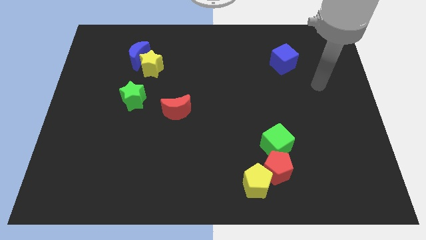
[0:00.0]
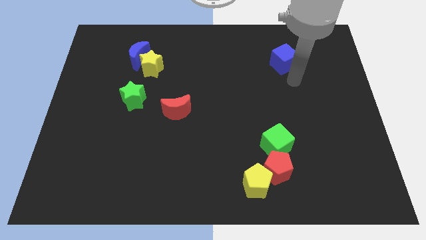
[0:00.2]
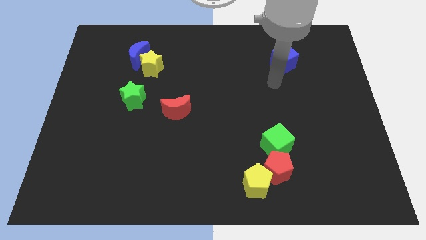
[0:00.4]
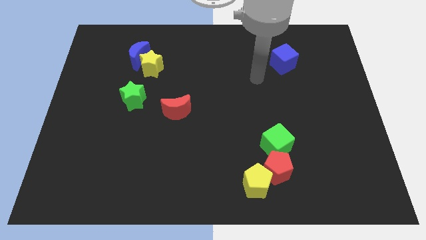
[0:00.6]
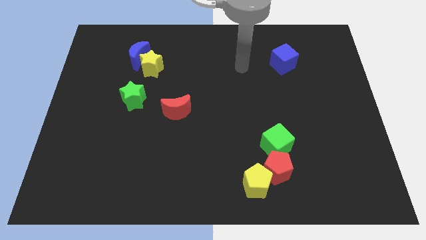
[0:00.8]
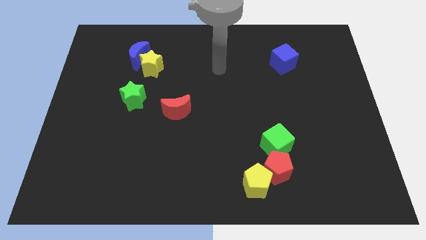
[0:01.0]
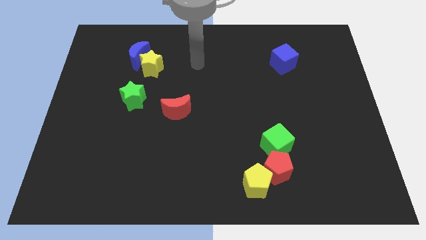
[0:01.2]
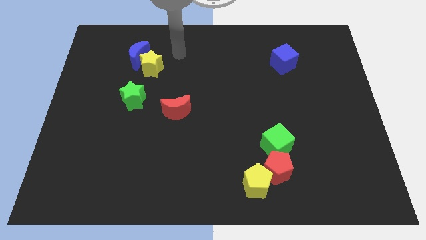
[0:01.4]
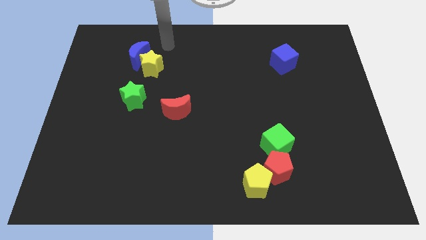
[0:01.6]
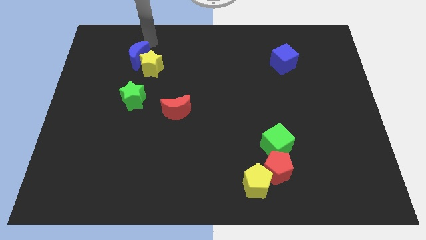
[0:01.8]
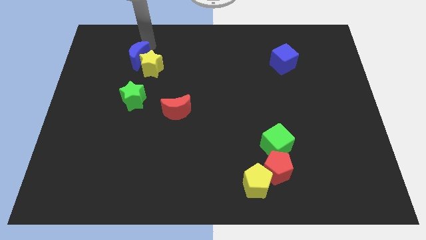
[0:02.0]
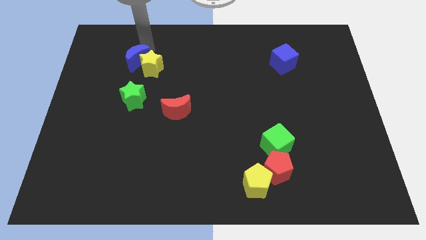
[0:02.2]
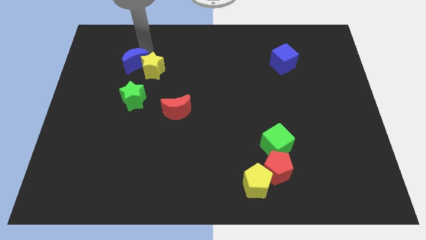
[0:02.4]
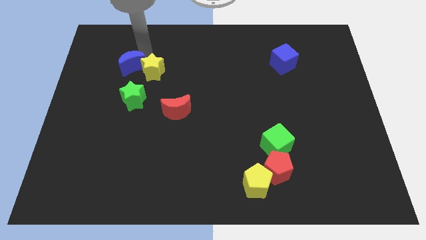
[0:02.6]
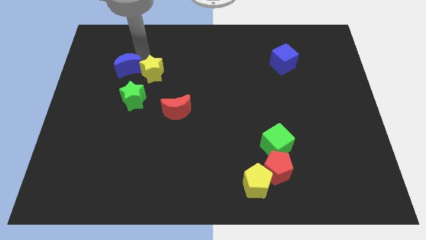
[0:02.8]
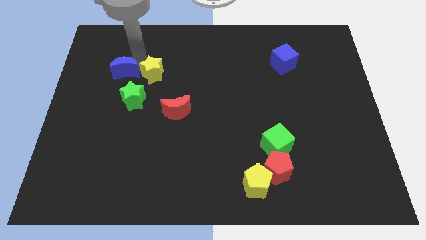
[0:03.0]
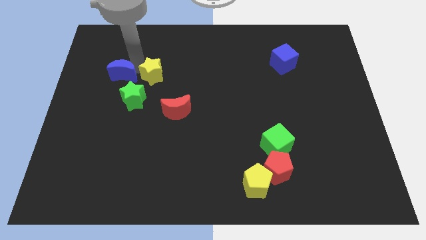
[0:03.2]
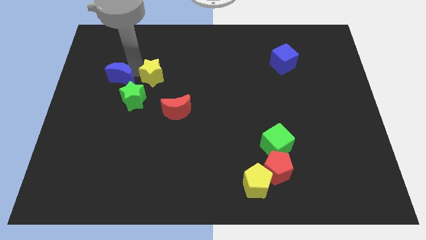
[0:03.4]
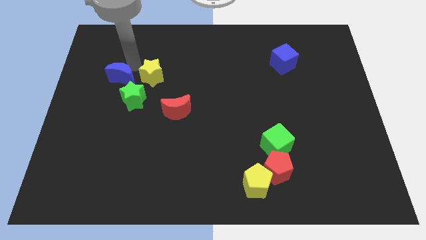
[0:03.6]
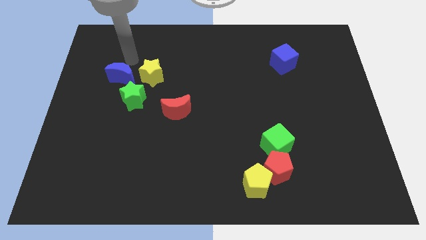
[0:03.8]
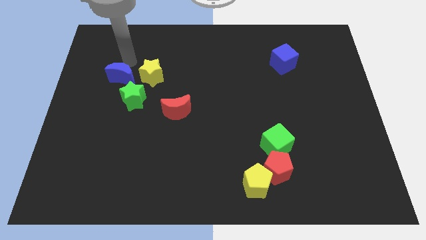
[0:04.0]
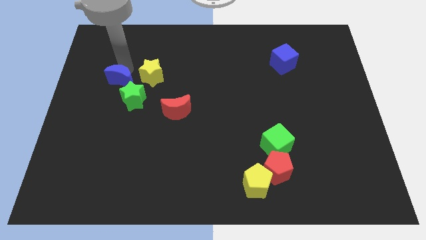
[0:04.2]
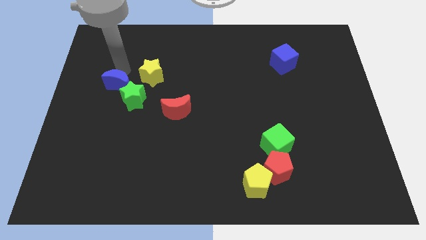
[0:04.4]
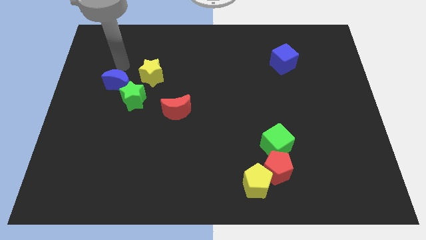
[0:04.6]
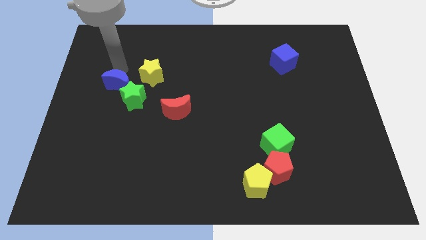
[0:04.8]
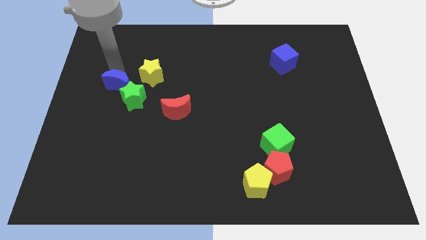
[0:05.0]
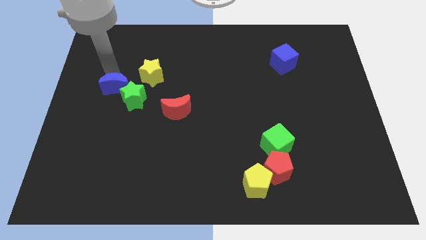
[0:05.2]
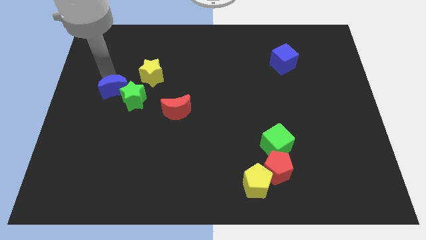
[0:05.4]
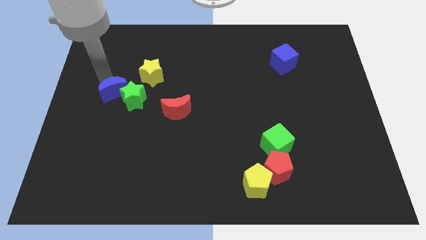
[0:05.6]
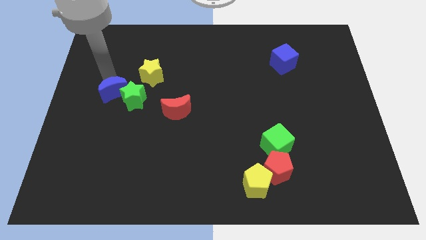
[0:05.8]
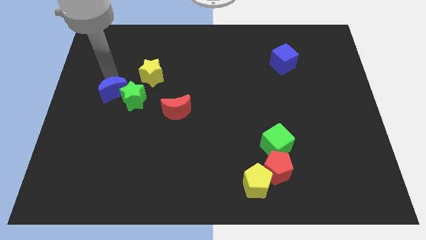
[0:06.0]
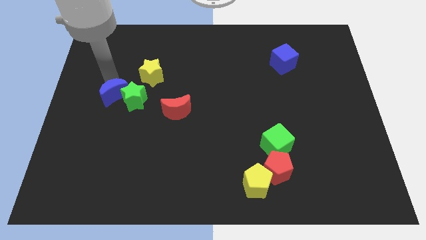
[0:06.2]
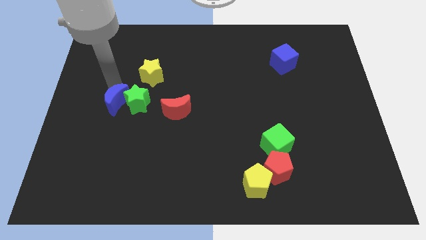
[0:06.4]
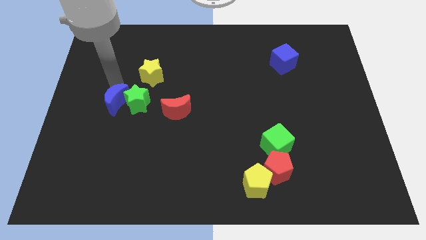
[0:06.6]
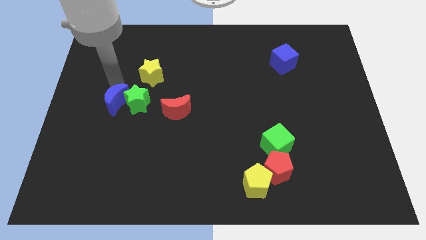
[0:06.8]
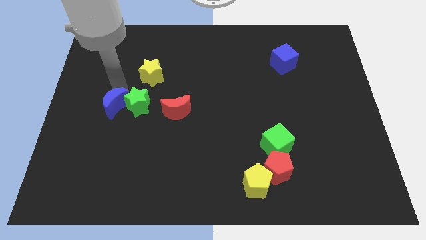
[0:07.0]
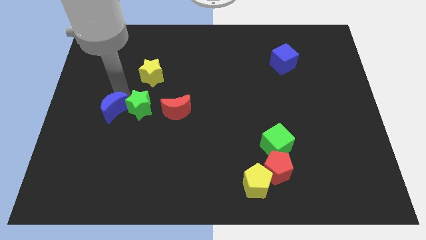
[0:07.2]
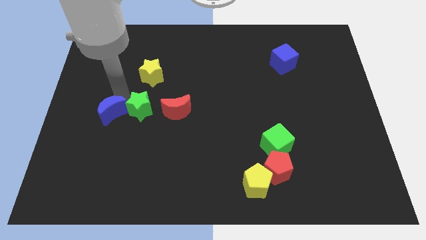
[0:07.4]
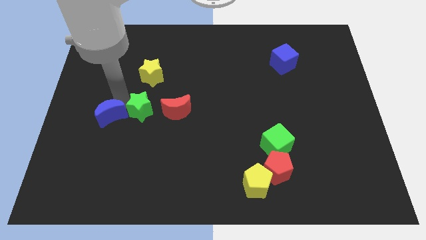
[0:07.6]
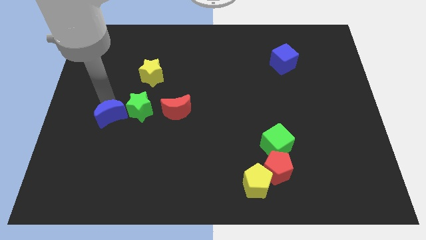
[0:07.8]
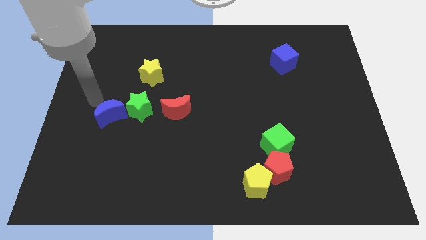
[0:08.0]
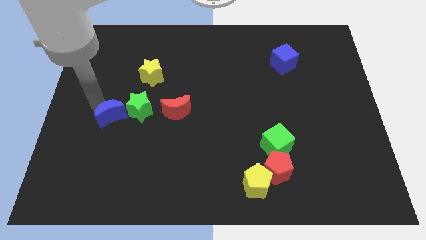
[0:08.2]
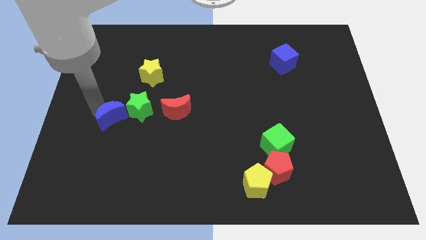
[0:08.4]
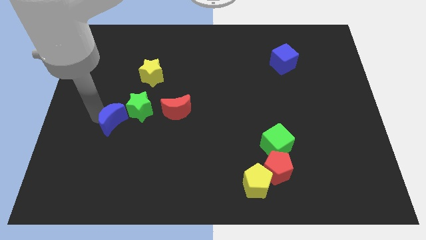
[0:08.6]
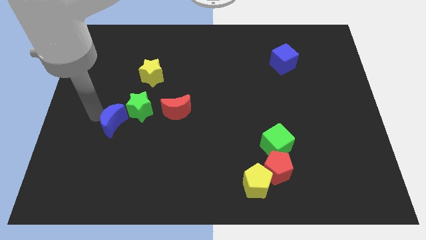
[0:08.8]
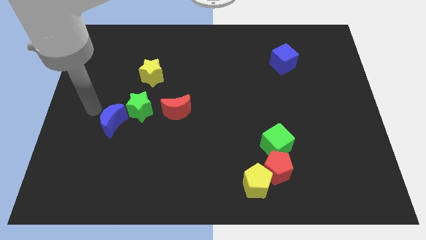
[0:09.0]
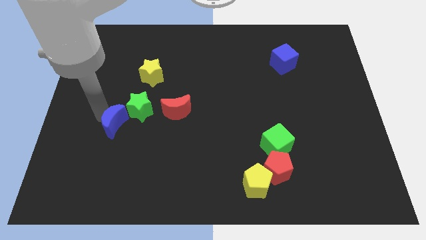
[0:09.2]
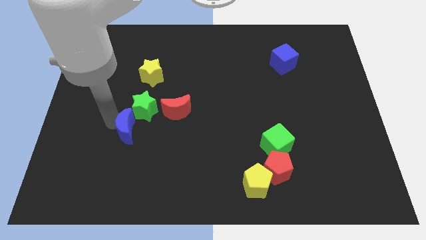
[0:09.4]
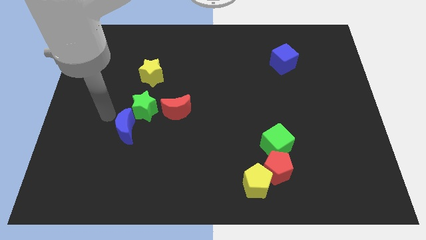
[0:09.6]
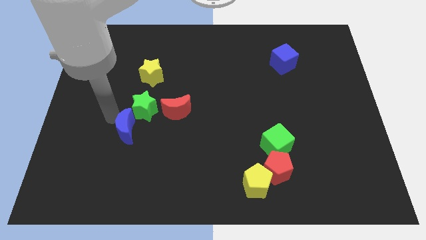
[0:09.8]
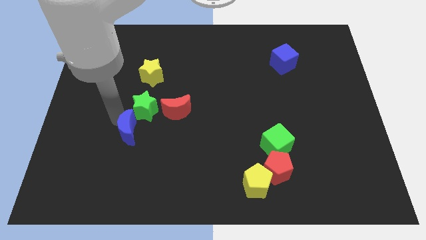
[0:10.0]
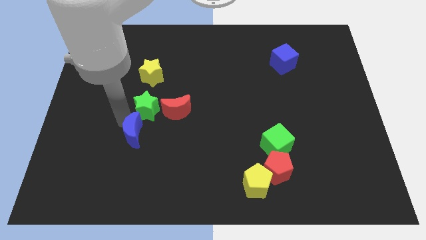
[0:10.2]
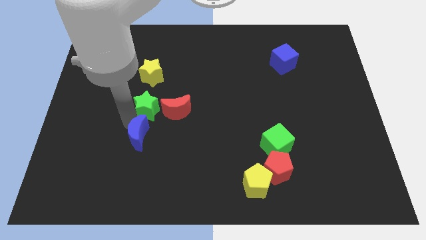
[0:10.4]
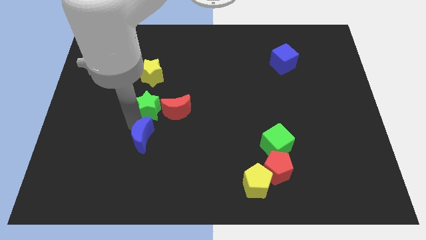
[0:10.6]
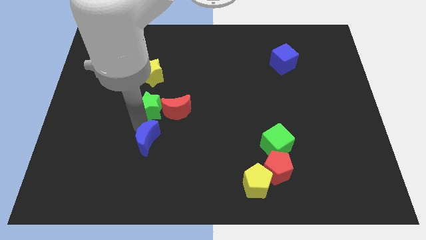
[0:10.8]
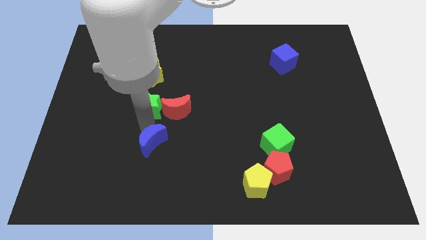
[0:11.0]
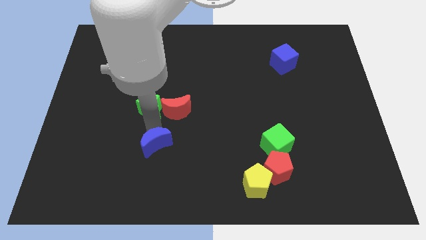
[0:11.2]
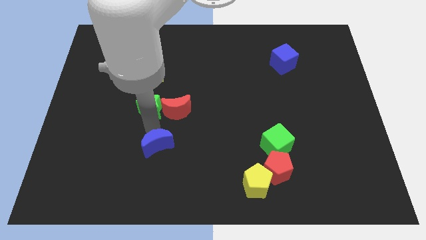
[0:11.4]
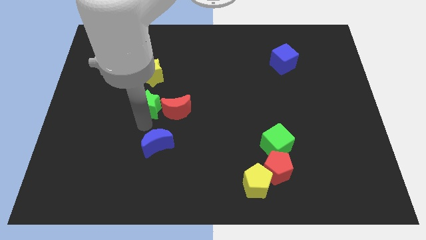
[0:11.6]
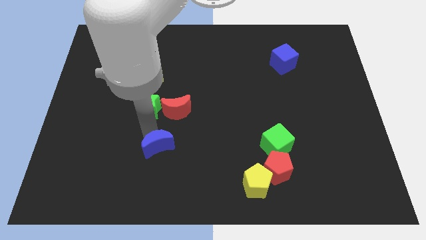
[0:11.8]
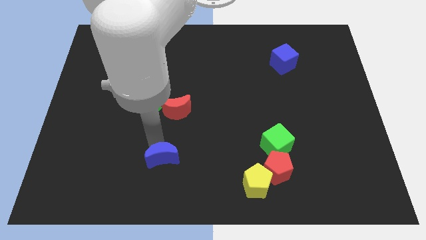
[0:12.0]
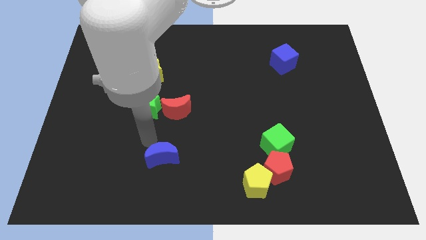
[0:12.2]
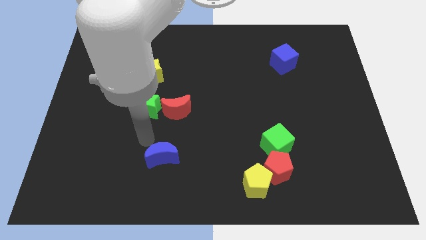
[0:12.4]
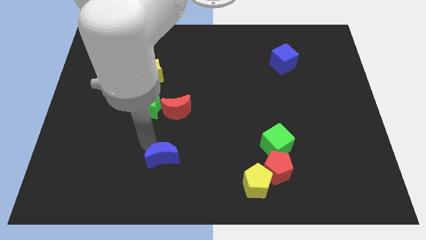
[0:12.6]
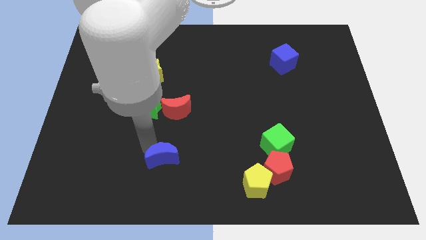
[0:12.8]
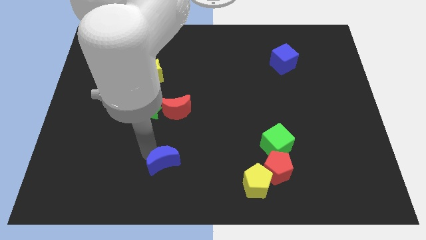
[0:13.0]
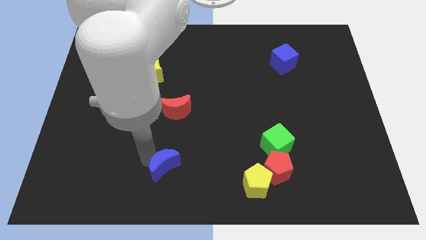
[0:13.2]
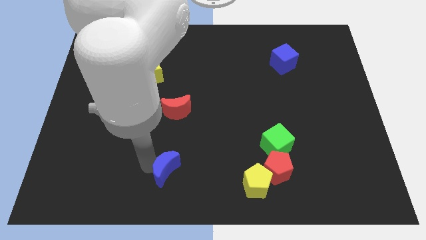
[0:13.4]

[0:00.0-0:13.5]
push the blue moon to the bottom
